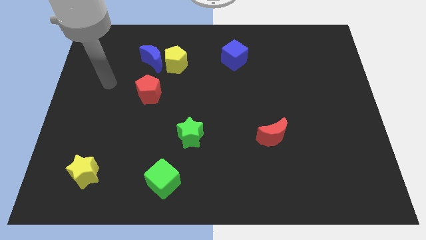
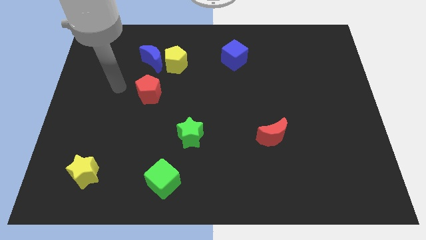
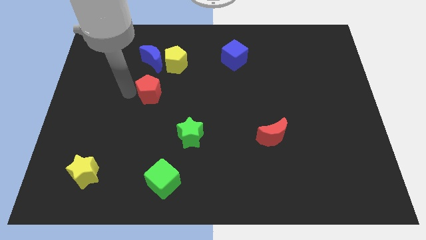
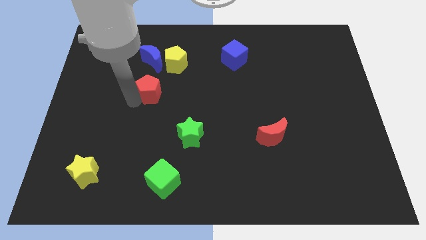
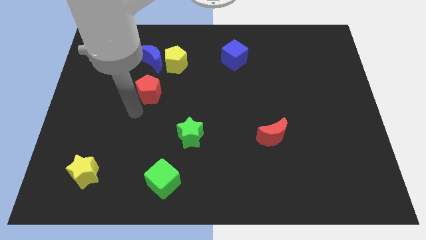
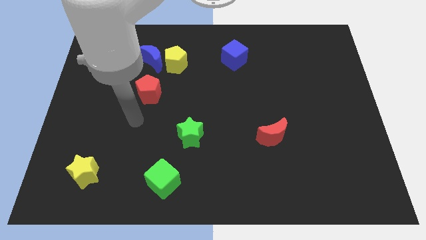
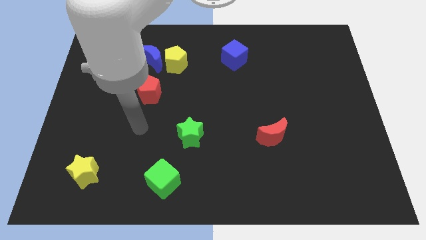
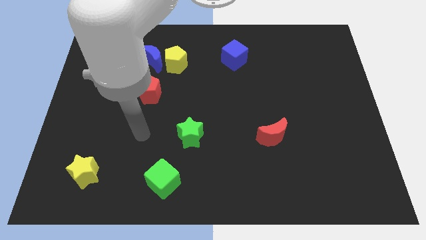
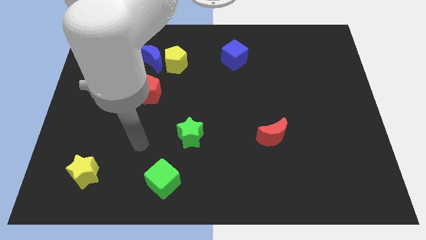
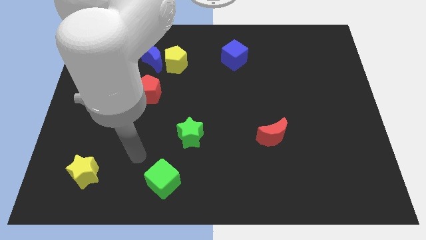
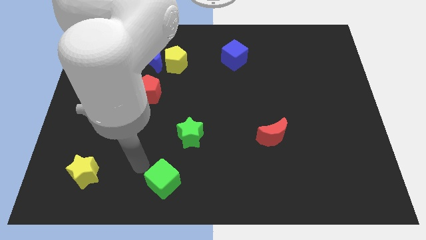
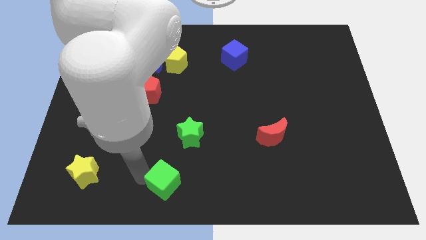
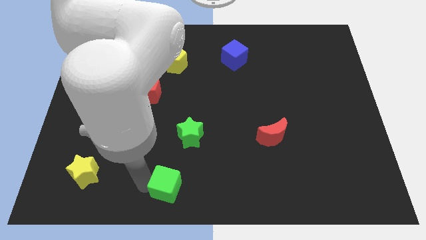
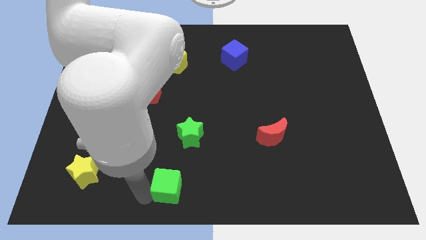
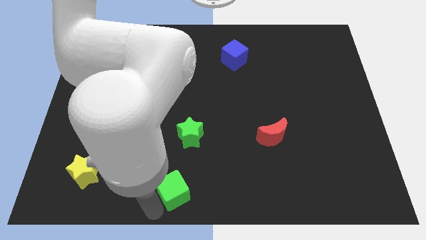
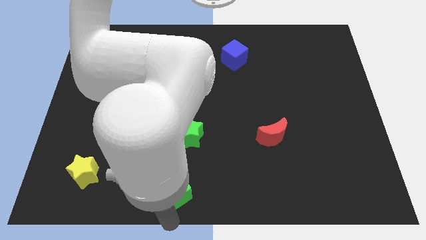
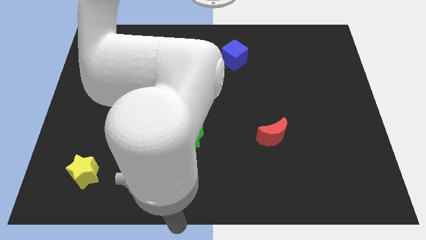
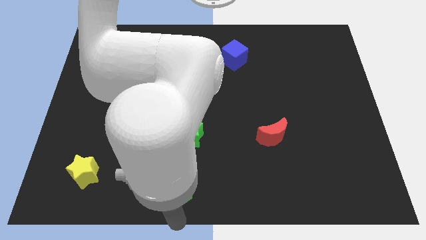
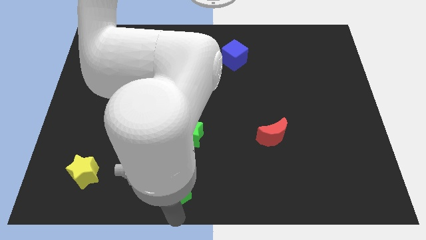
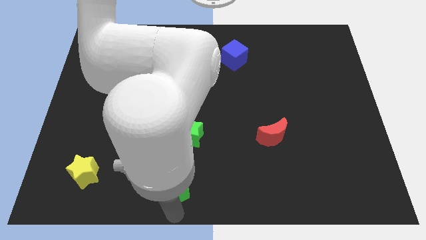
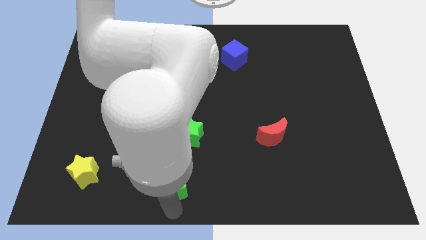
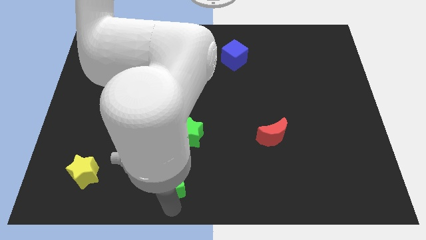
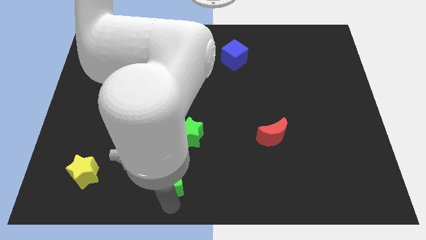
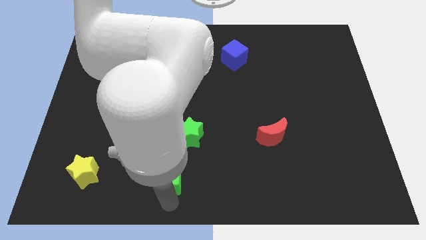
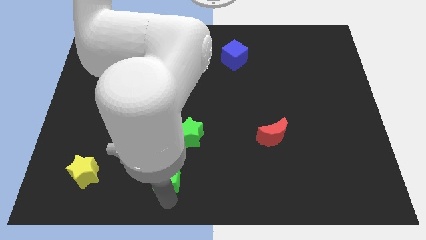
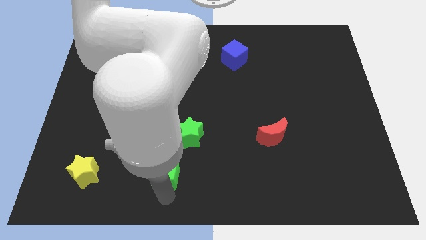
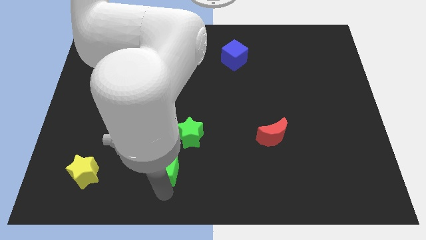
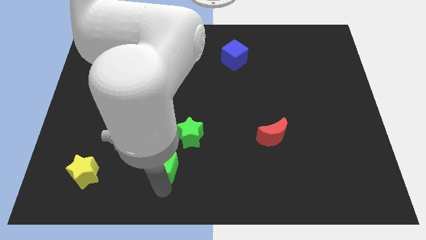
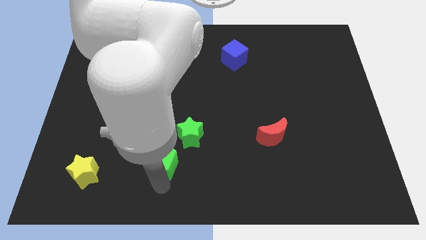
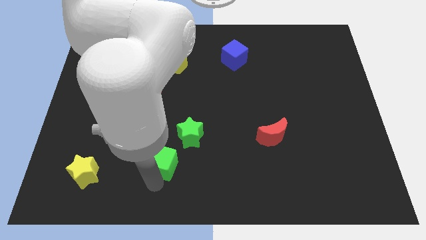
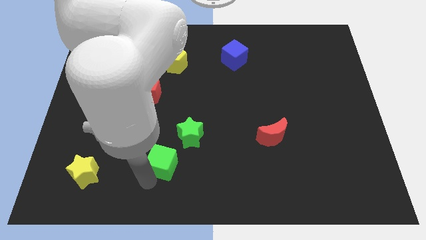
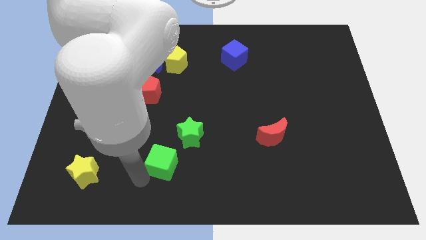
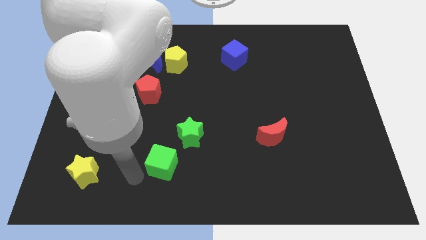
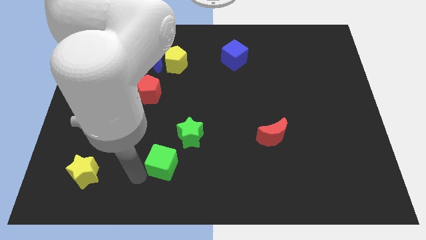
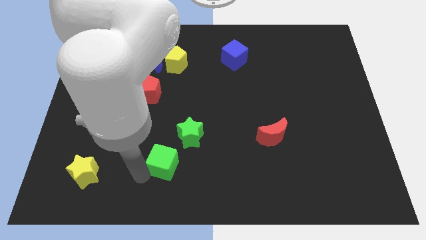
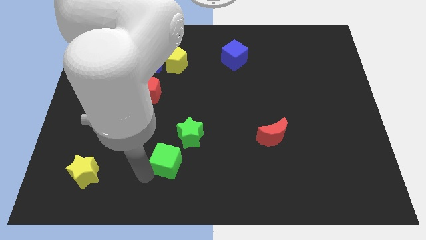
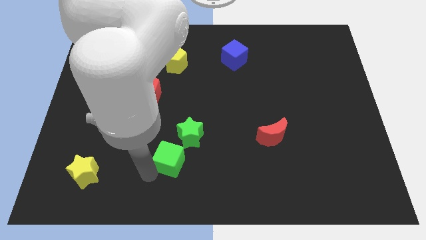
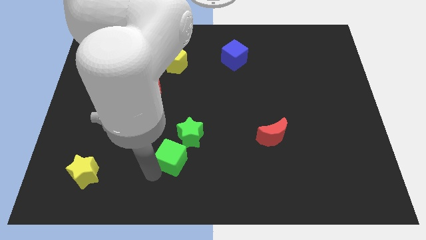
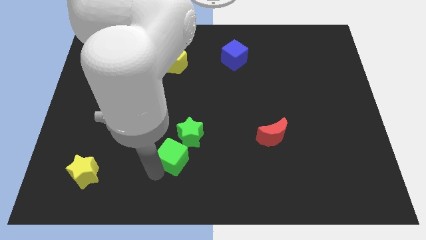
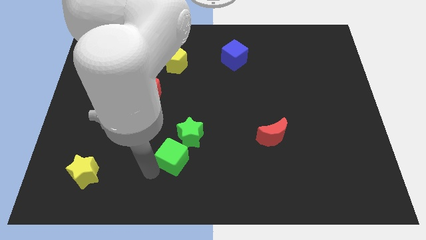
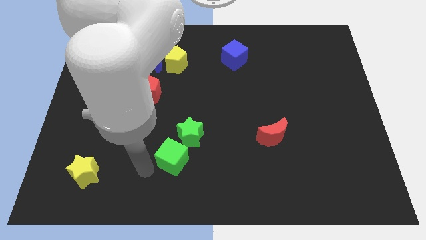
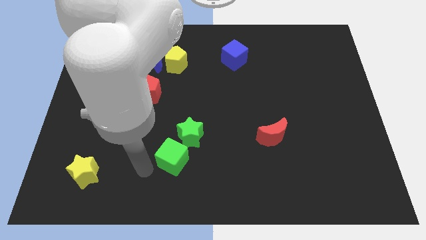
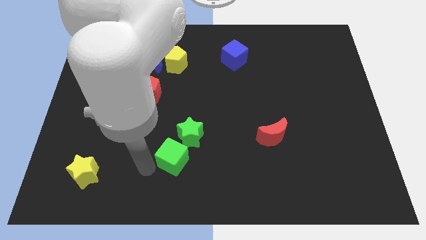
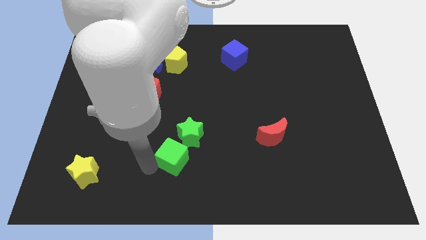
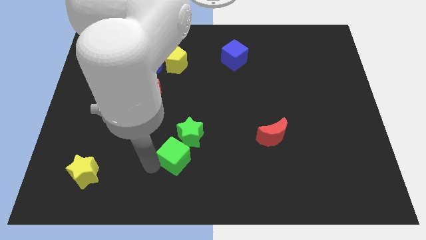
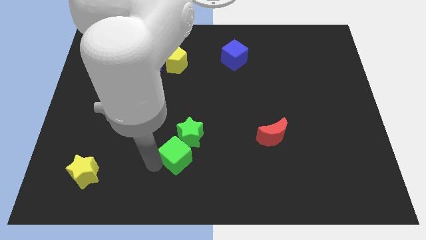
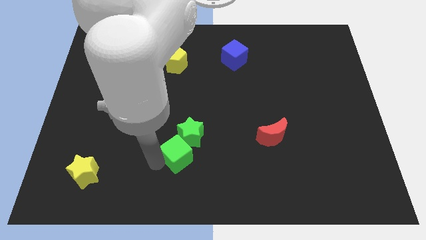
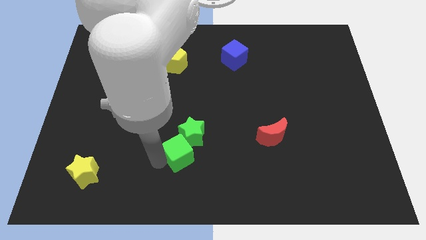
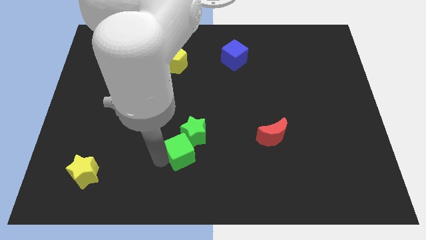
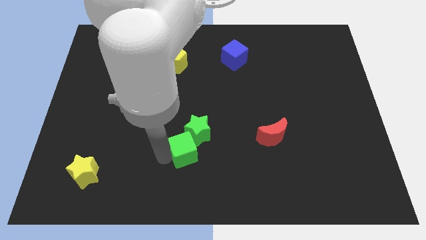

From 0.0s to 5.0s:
slightly push the green cube upwards and to the right

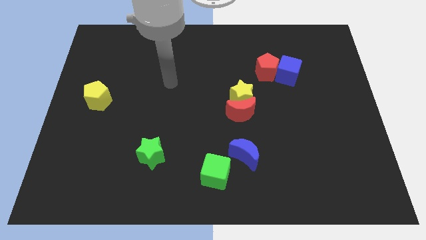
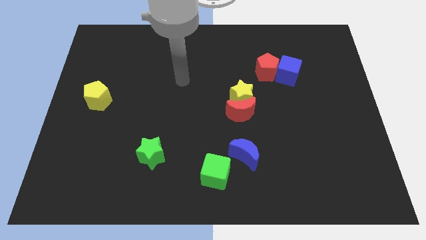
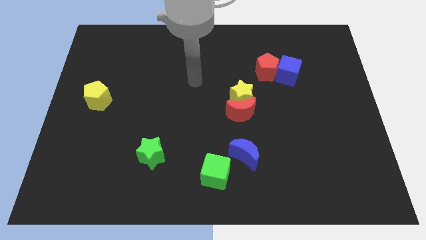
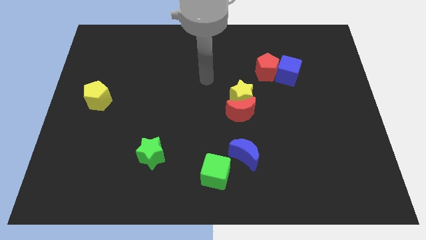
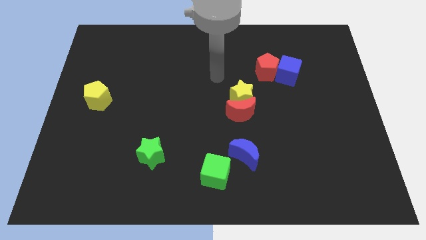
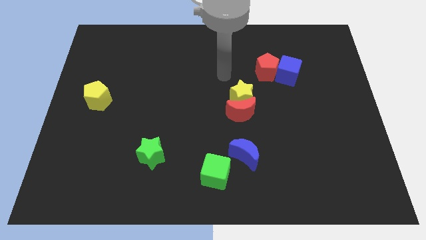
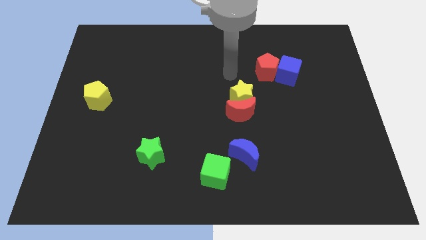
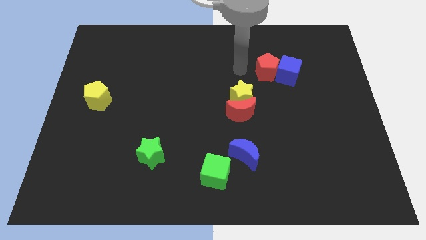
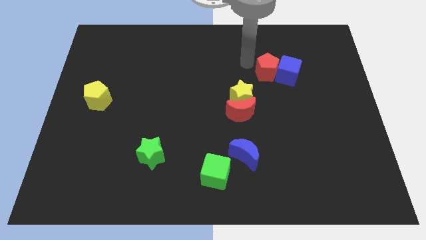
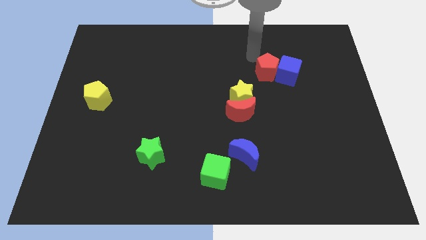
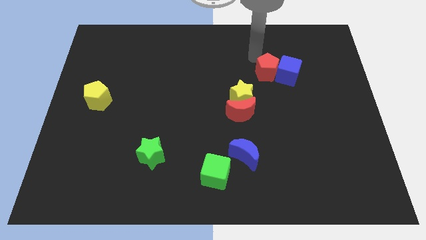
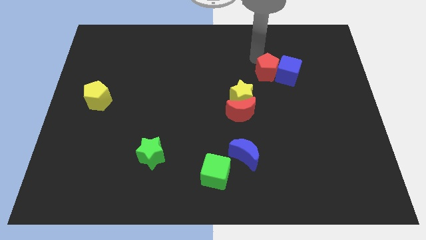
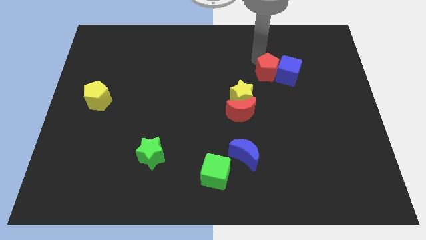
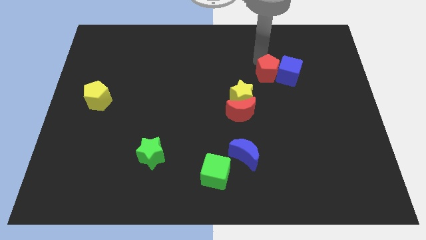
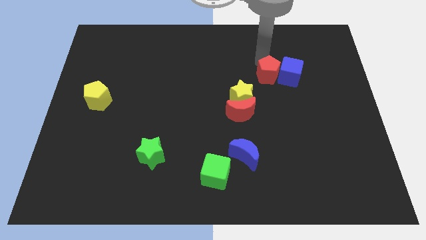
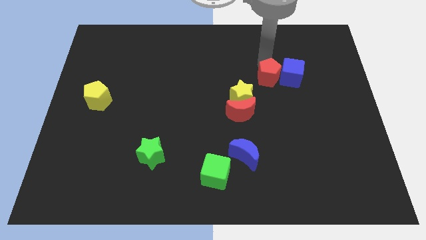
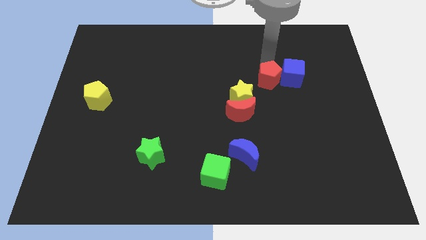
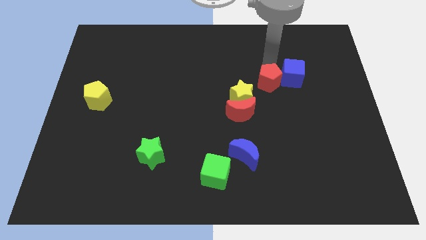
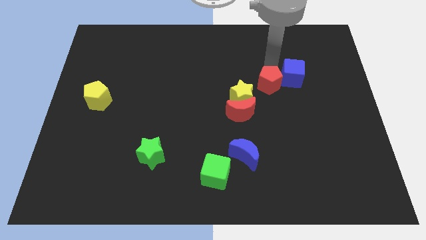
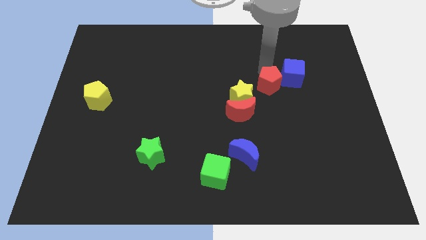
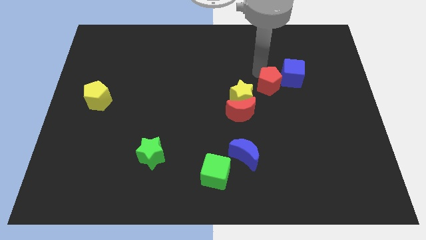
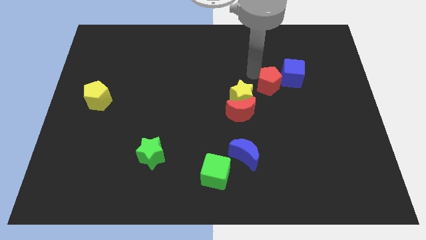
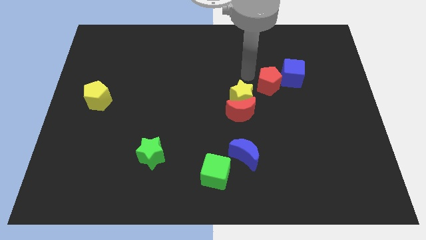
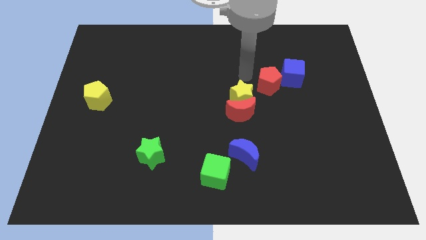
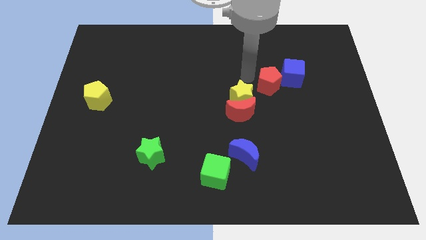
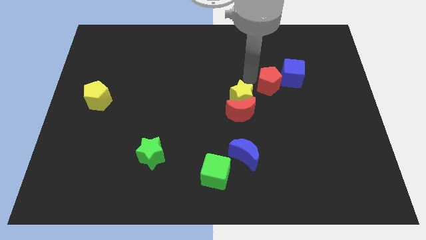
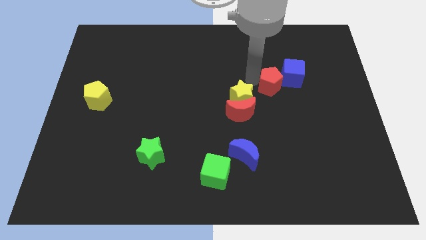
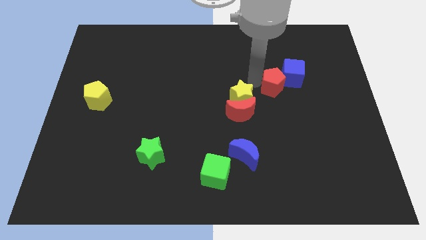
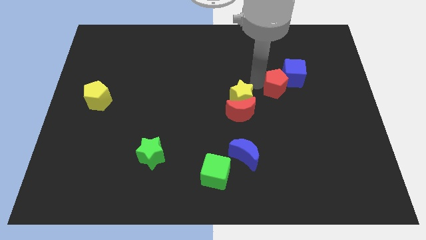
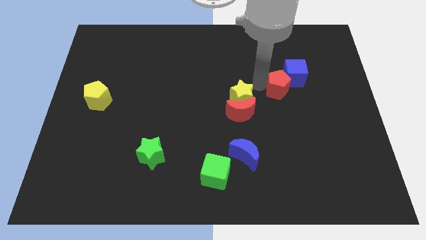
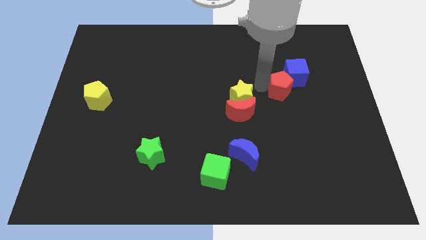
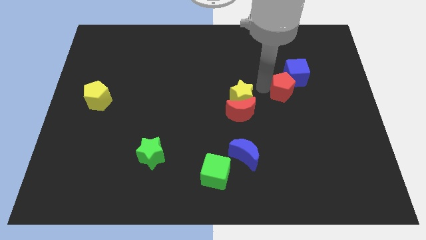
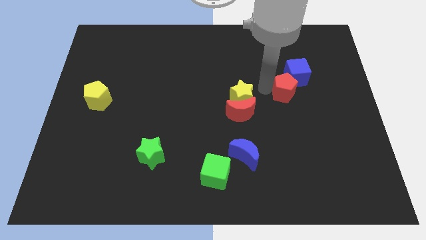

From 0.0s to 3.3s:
slightly slide the red pentagon down and right
